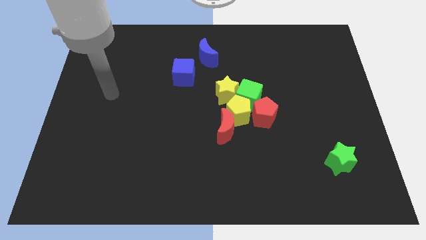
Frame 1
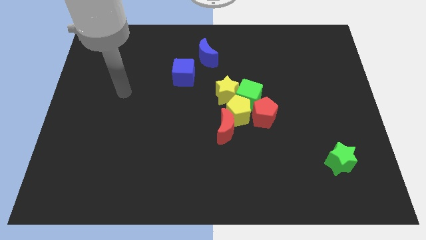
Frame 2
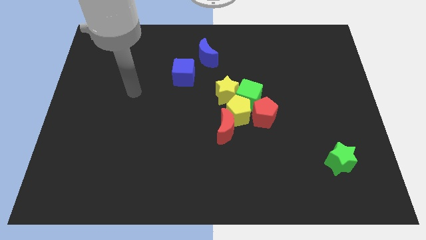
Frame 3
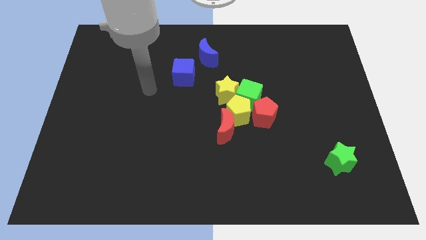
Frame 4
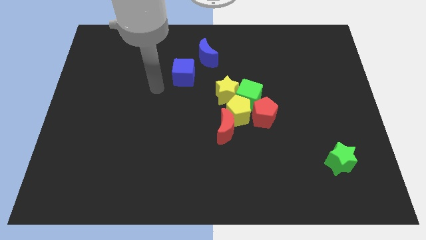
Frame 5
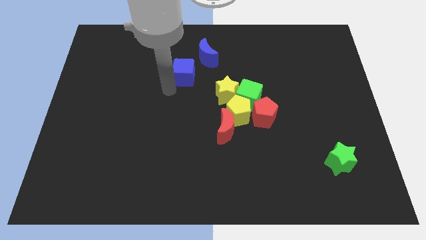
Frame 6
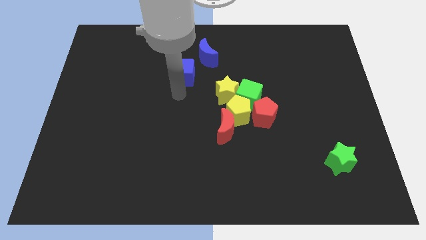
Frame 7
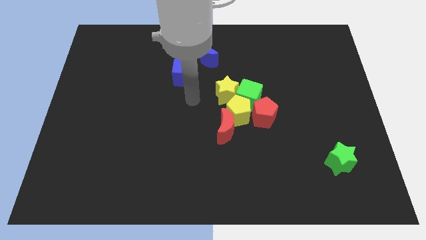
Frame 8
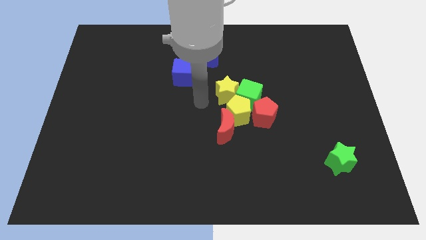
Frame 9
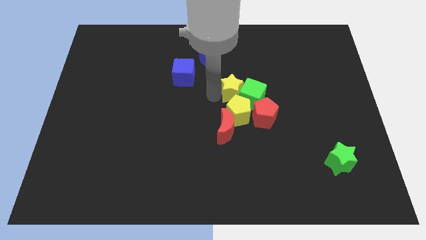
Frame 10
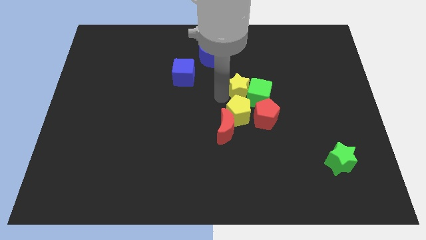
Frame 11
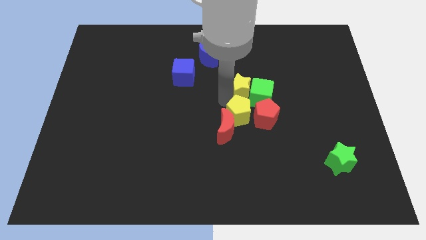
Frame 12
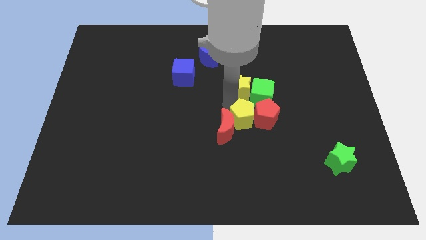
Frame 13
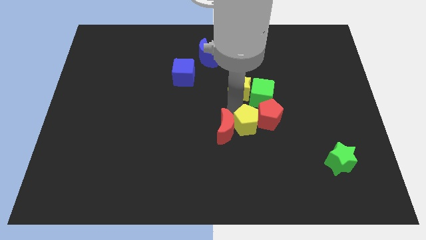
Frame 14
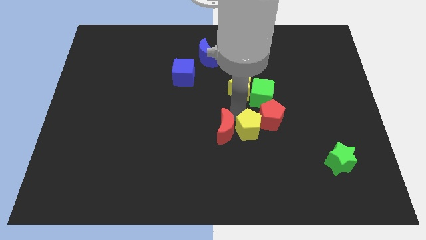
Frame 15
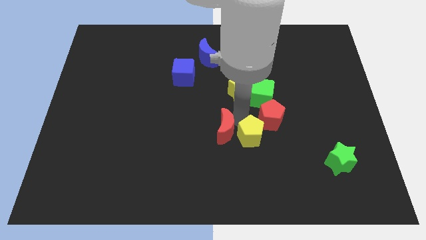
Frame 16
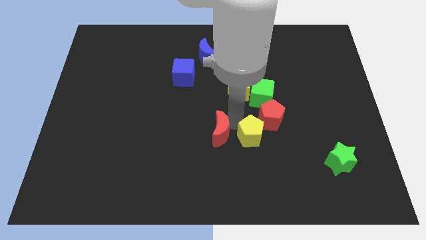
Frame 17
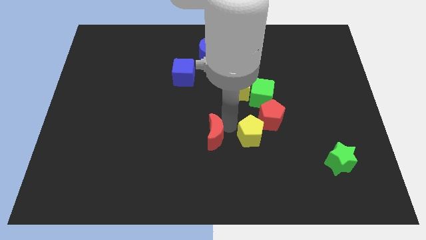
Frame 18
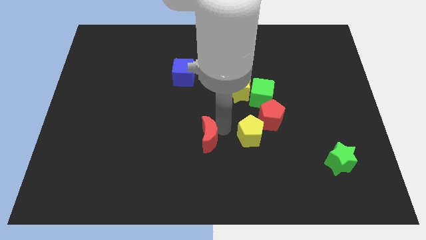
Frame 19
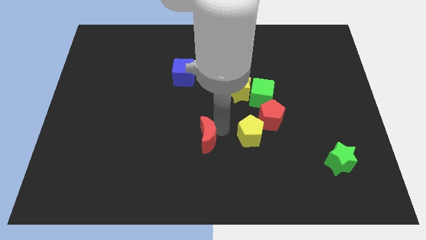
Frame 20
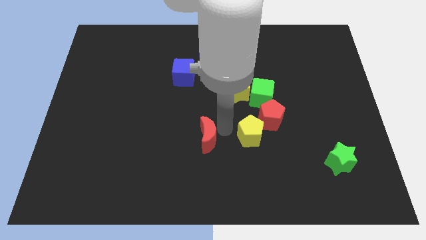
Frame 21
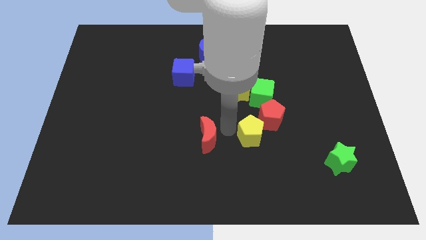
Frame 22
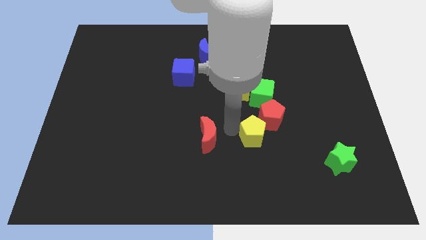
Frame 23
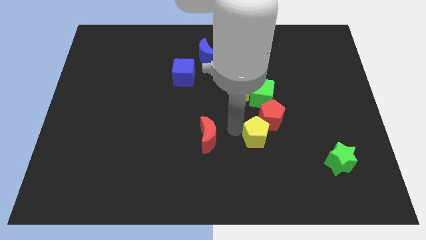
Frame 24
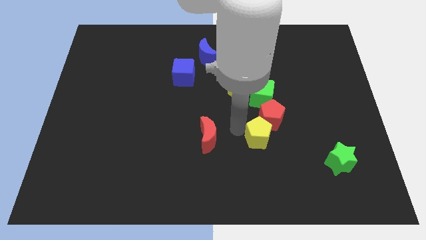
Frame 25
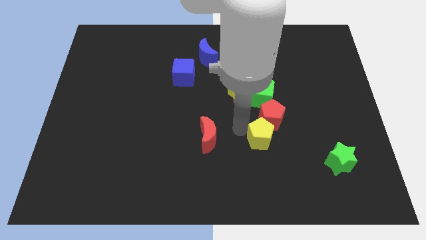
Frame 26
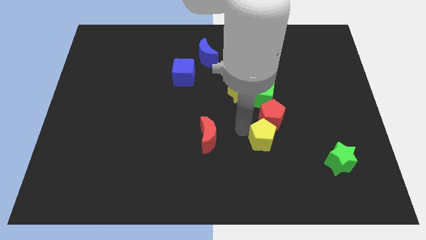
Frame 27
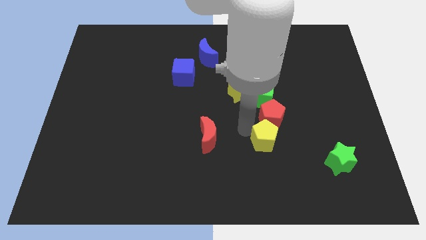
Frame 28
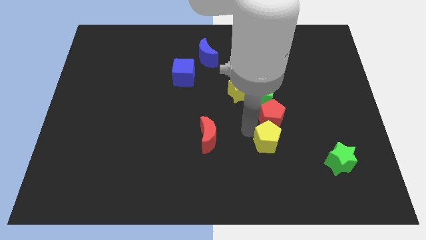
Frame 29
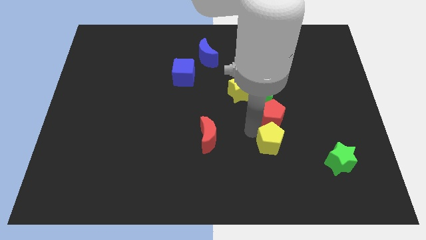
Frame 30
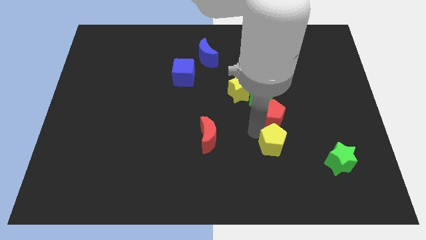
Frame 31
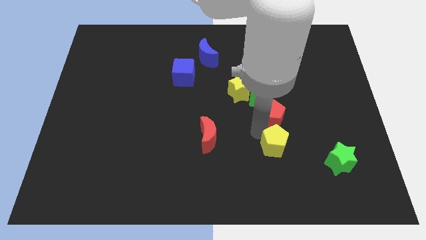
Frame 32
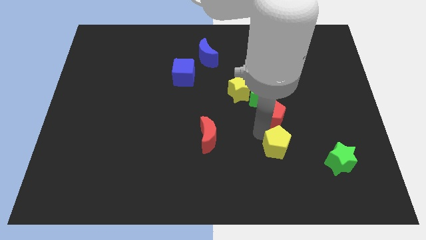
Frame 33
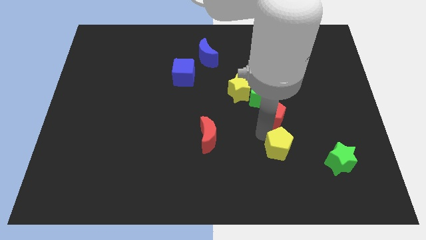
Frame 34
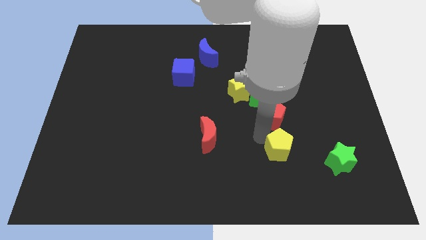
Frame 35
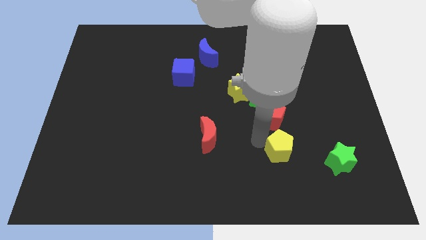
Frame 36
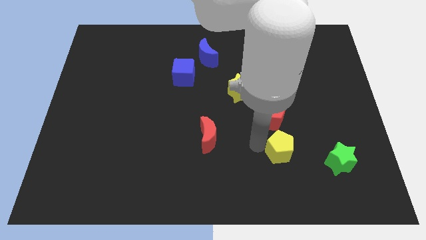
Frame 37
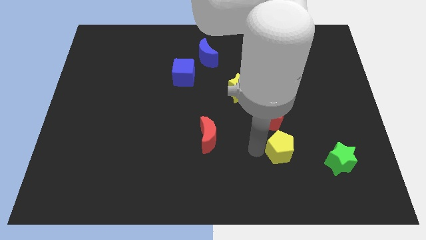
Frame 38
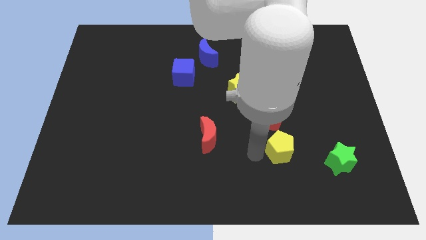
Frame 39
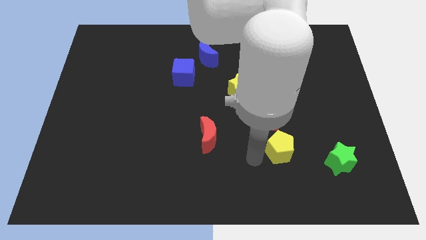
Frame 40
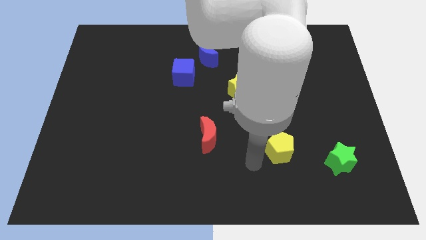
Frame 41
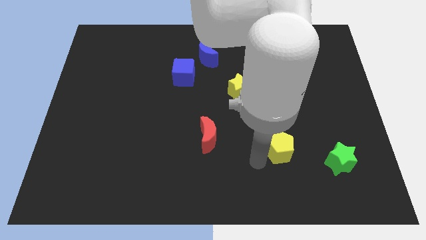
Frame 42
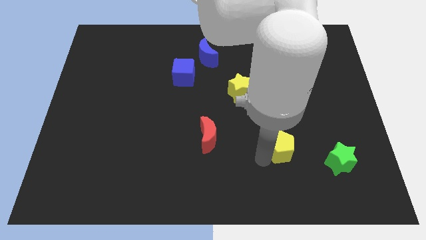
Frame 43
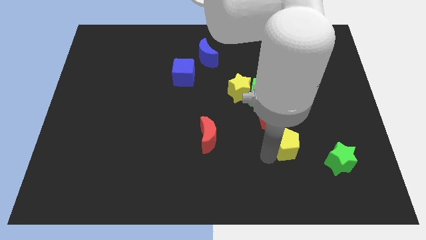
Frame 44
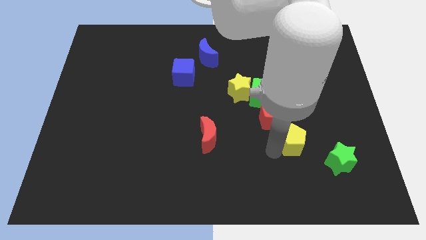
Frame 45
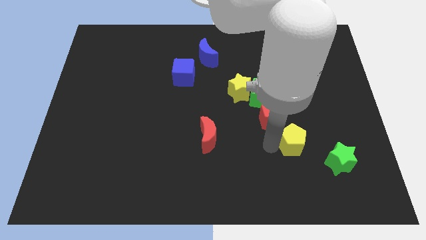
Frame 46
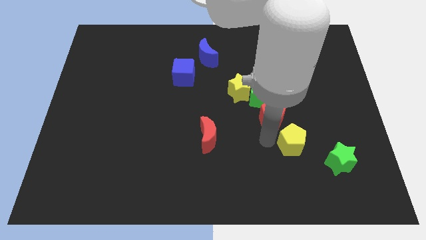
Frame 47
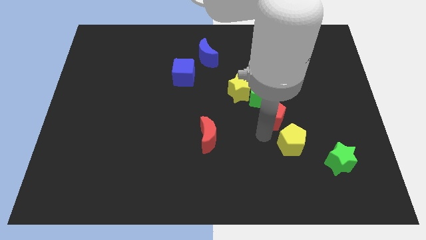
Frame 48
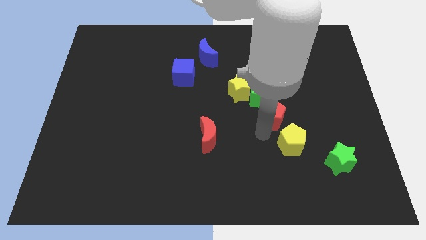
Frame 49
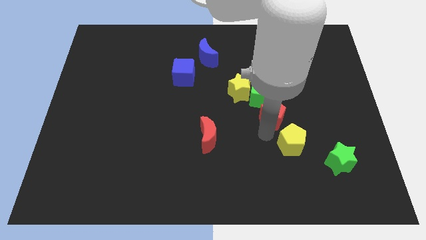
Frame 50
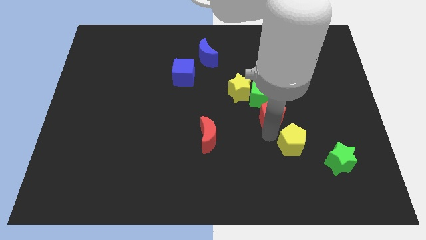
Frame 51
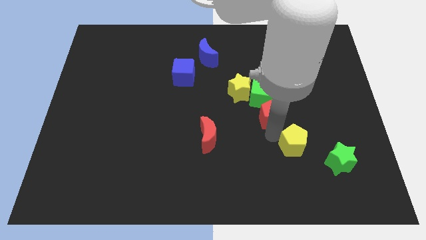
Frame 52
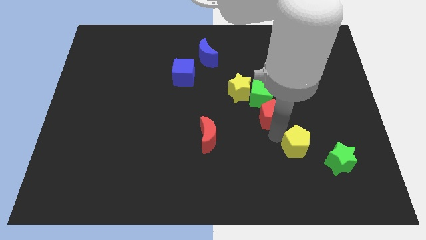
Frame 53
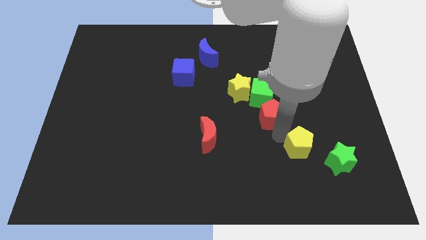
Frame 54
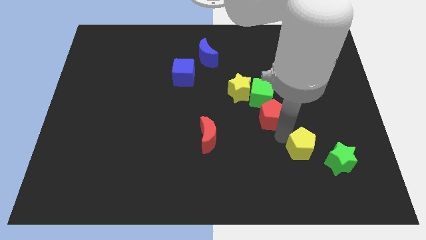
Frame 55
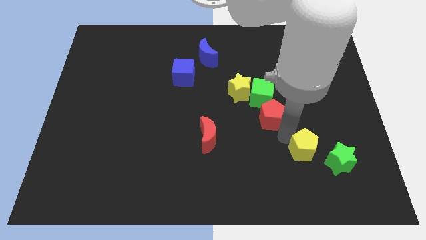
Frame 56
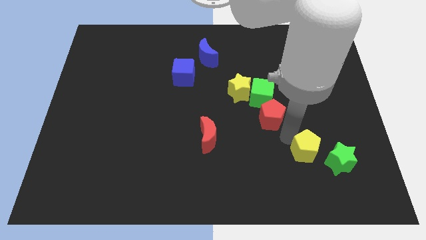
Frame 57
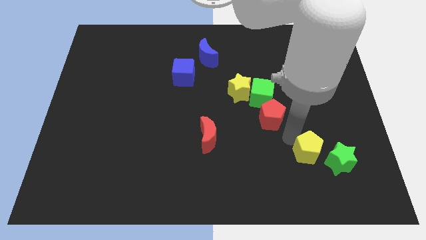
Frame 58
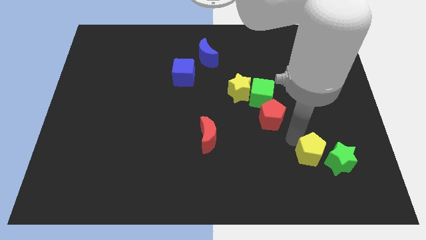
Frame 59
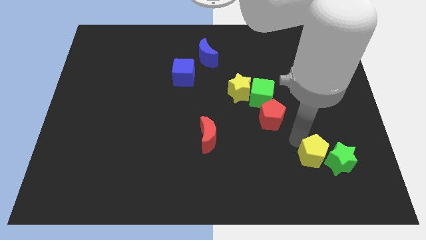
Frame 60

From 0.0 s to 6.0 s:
push the yellow pentagon close to the green star
